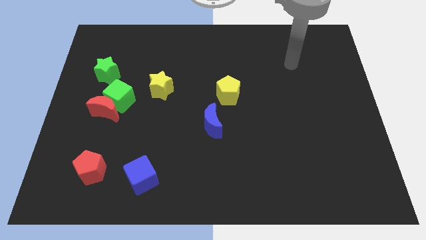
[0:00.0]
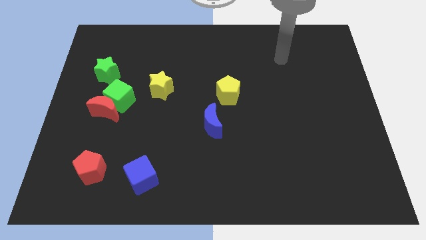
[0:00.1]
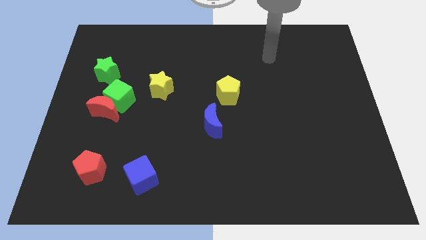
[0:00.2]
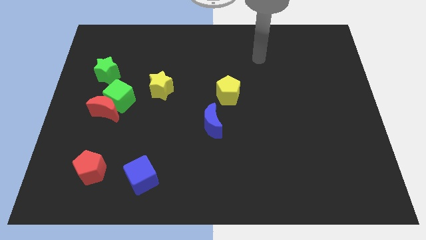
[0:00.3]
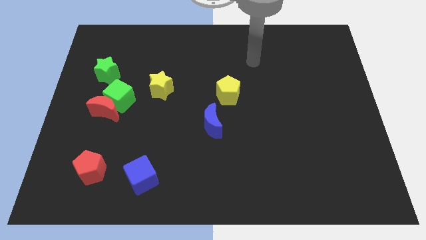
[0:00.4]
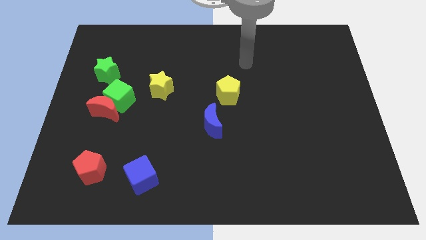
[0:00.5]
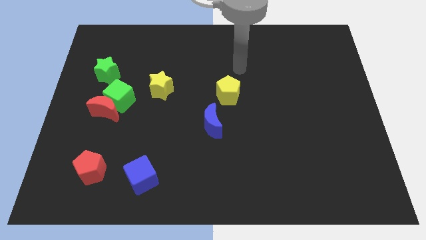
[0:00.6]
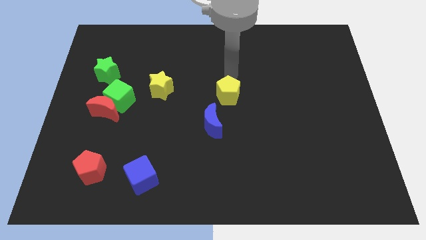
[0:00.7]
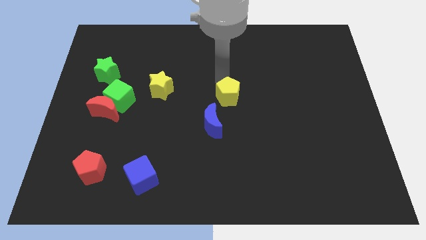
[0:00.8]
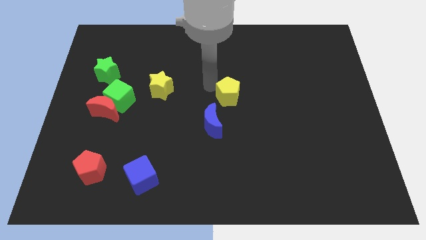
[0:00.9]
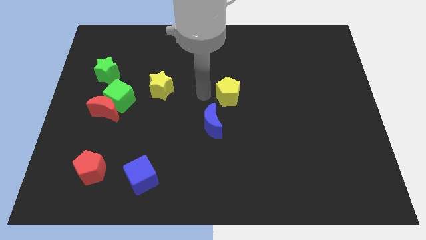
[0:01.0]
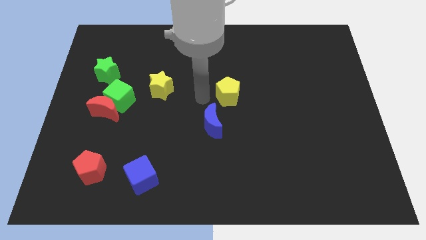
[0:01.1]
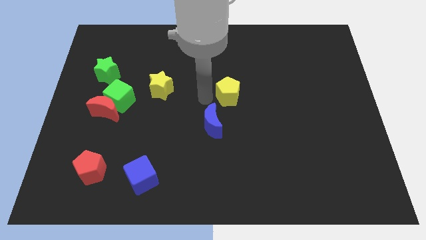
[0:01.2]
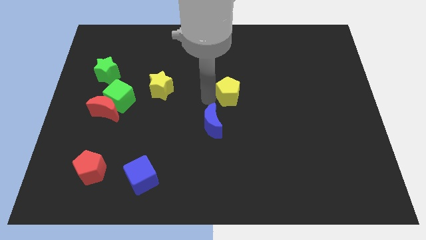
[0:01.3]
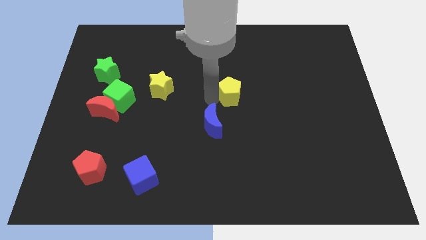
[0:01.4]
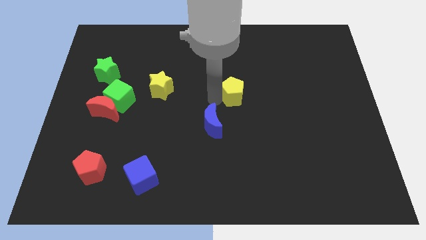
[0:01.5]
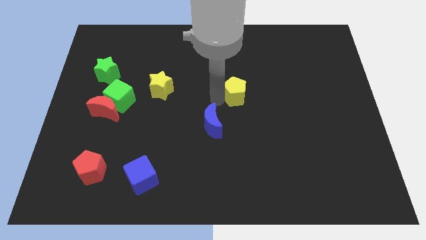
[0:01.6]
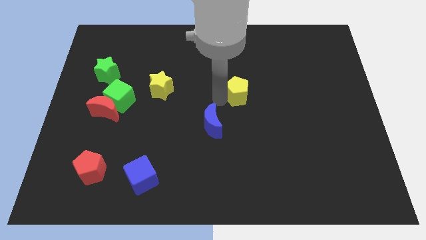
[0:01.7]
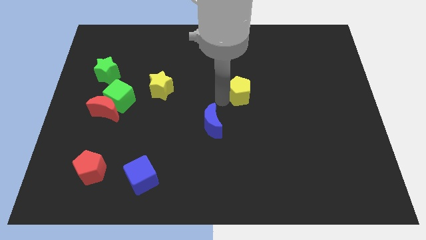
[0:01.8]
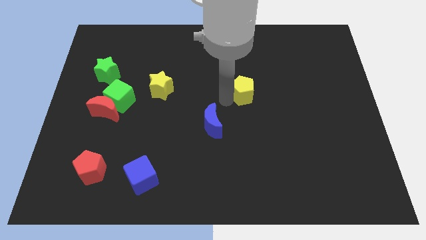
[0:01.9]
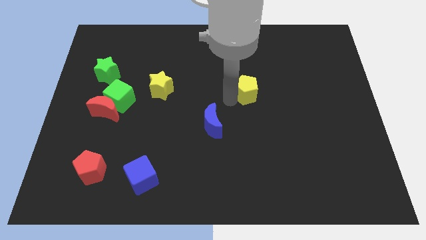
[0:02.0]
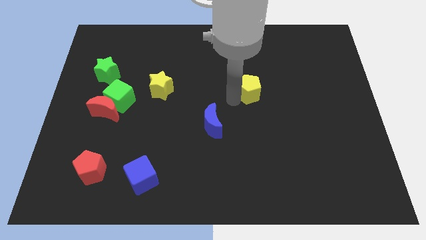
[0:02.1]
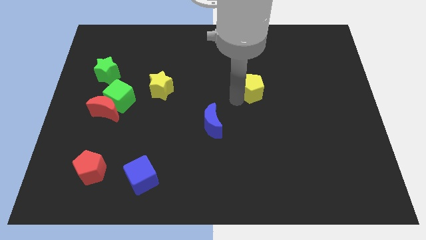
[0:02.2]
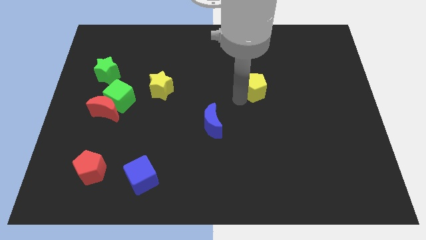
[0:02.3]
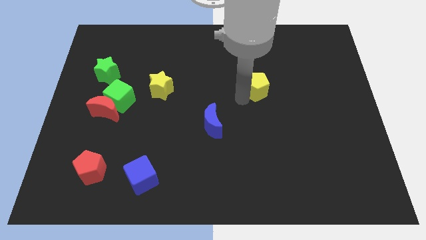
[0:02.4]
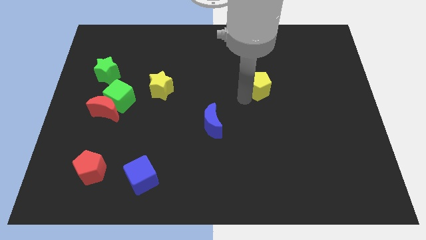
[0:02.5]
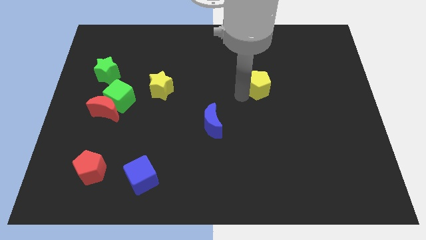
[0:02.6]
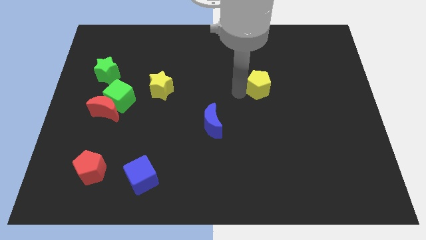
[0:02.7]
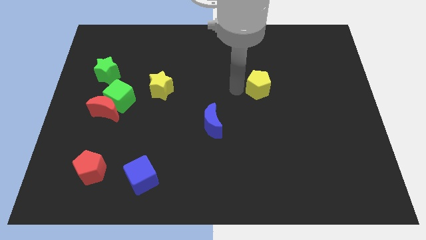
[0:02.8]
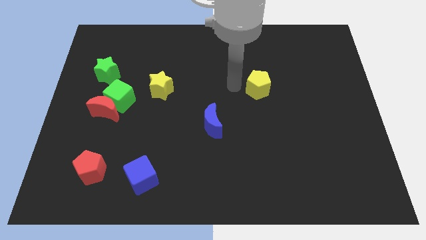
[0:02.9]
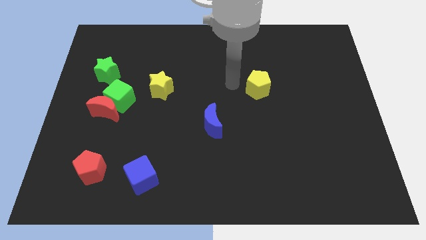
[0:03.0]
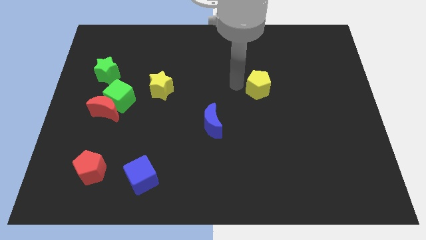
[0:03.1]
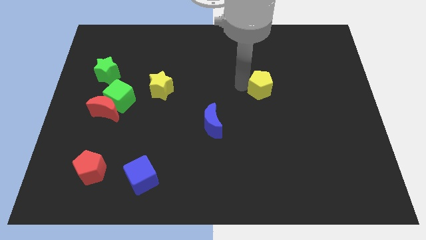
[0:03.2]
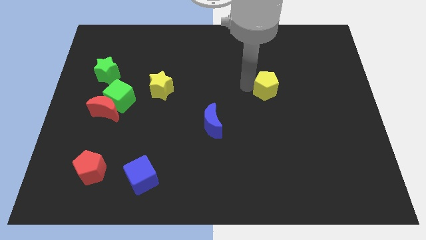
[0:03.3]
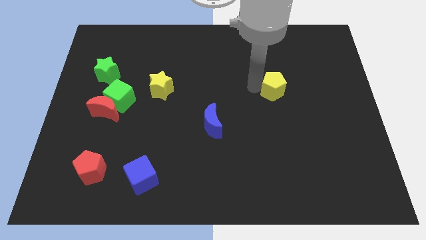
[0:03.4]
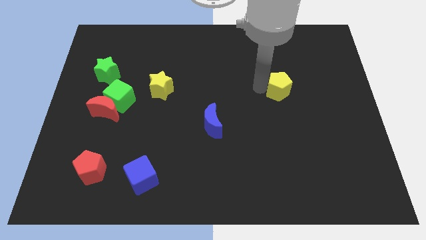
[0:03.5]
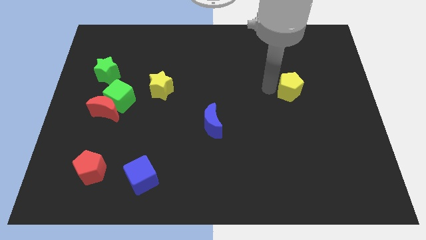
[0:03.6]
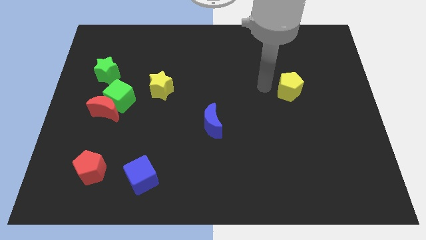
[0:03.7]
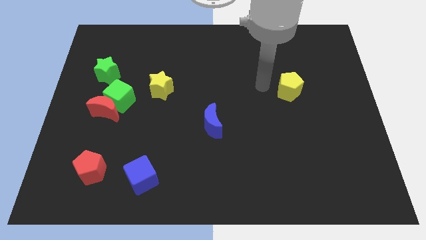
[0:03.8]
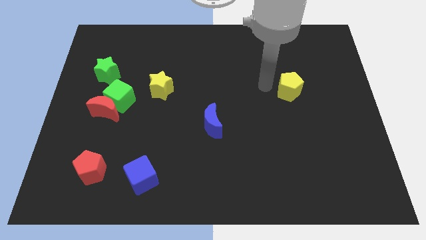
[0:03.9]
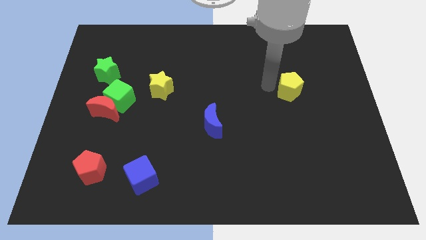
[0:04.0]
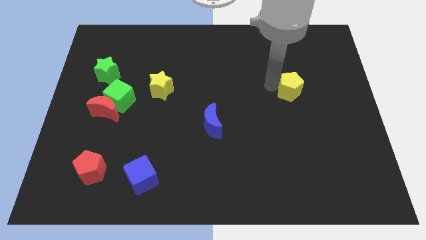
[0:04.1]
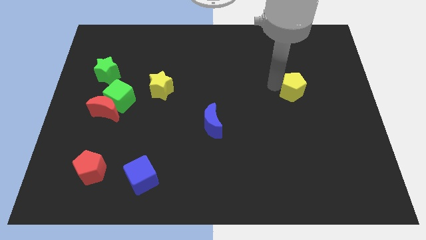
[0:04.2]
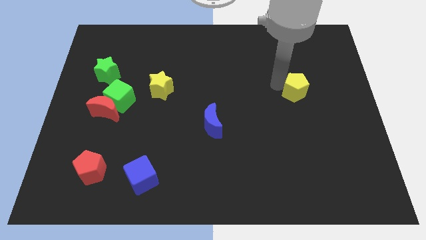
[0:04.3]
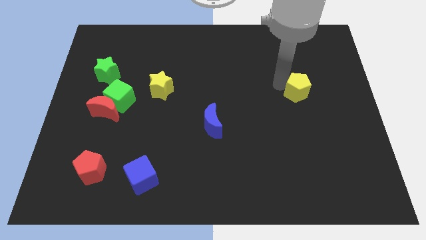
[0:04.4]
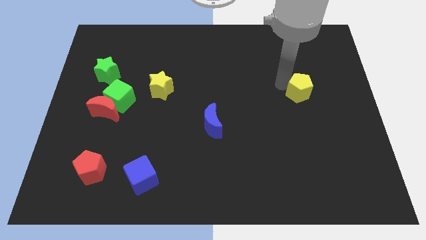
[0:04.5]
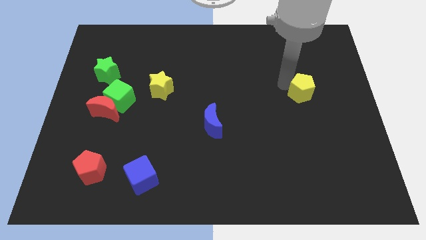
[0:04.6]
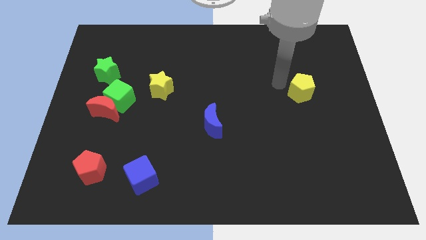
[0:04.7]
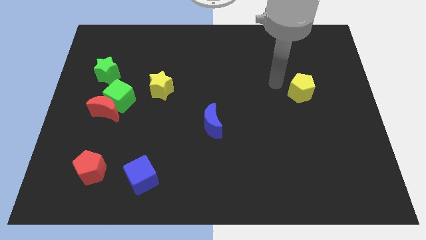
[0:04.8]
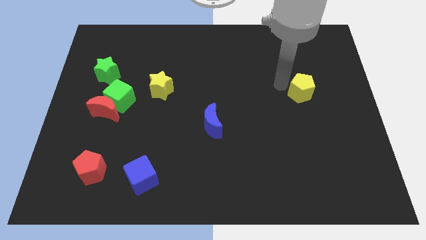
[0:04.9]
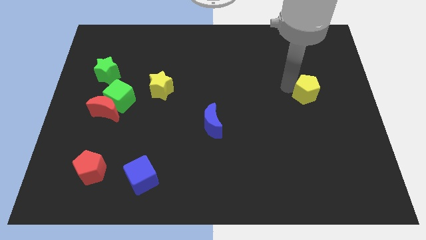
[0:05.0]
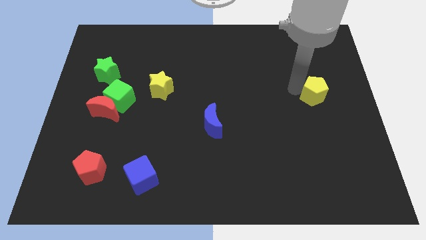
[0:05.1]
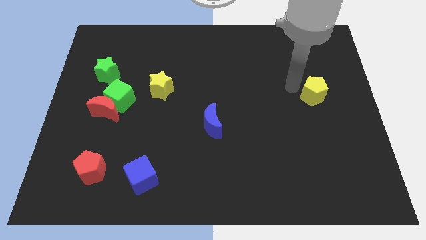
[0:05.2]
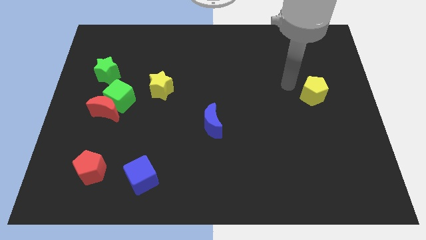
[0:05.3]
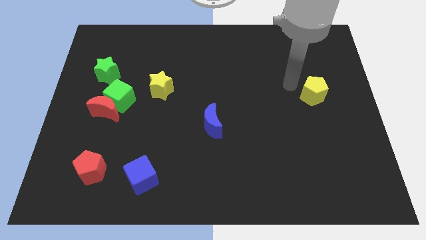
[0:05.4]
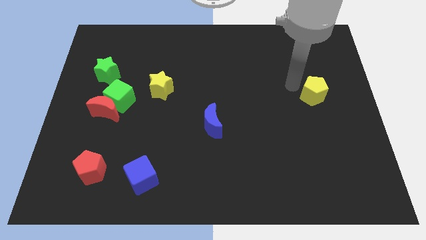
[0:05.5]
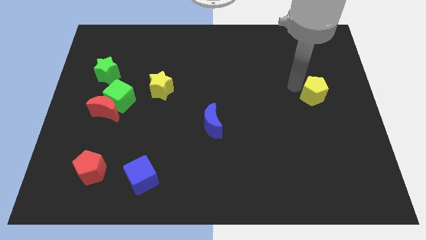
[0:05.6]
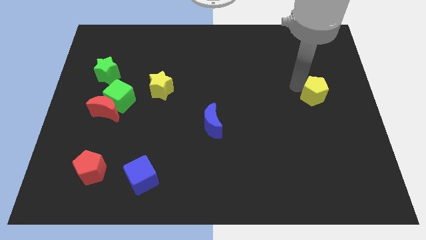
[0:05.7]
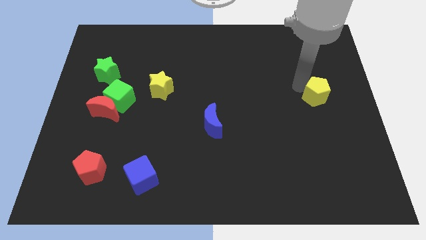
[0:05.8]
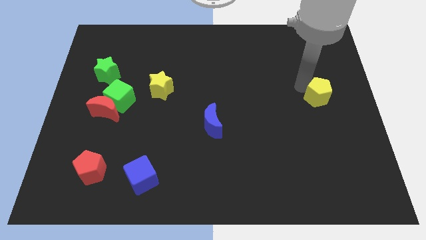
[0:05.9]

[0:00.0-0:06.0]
move the yellow pentagon to the right side of the board

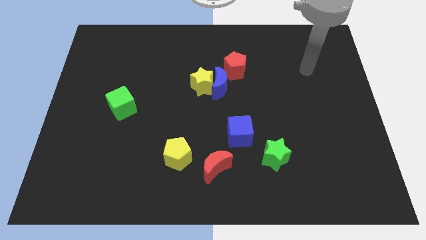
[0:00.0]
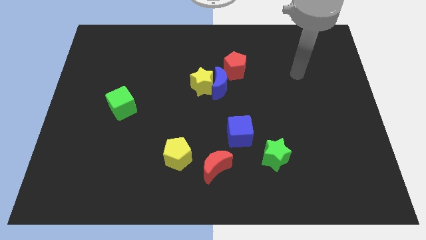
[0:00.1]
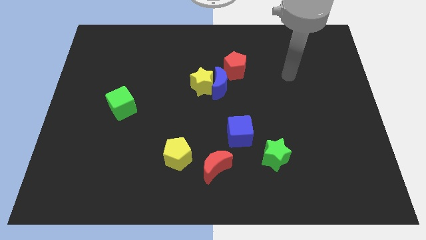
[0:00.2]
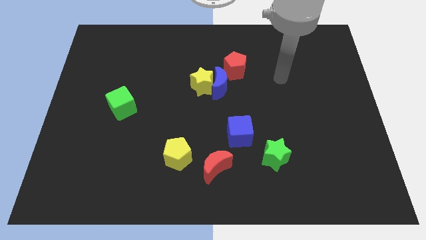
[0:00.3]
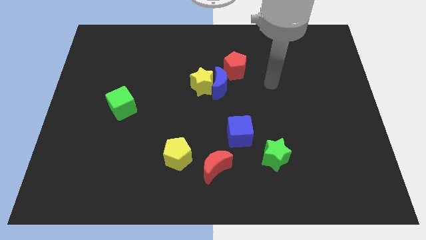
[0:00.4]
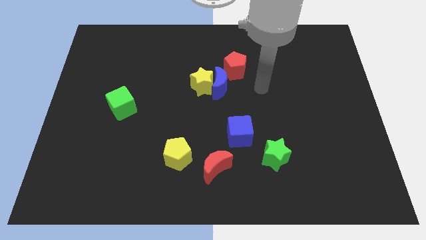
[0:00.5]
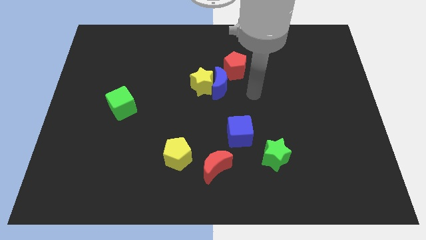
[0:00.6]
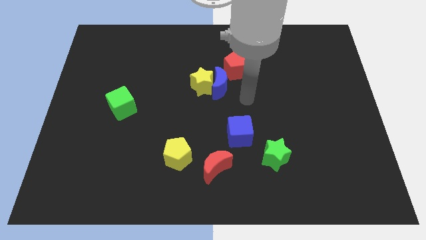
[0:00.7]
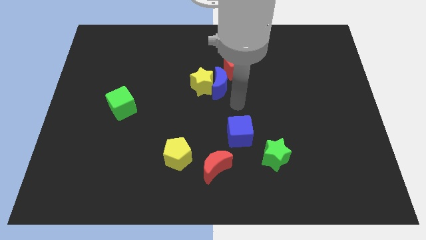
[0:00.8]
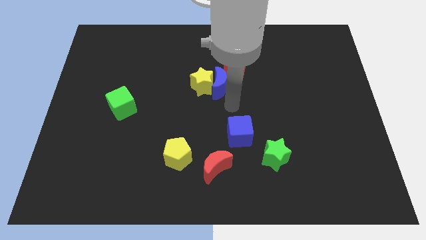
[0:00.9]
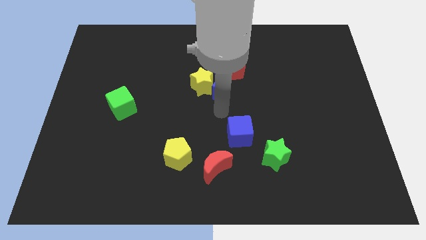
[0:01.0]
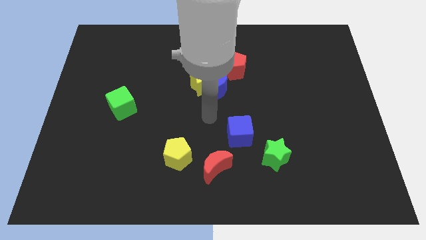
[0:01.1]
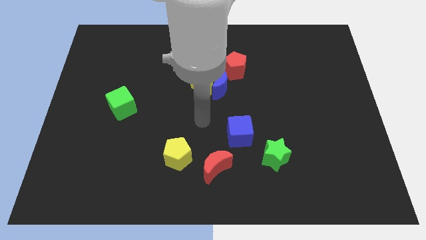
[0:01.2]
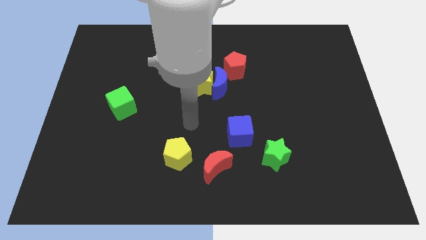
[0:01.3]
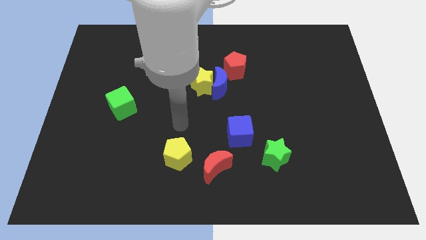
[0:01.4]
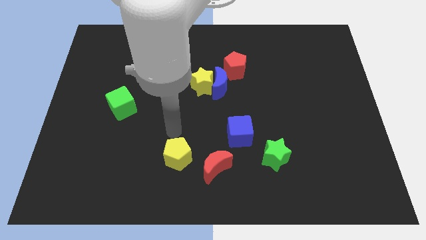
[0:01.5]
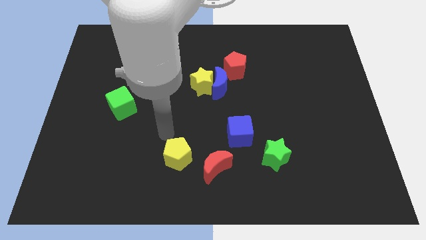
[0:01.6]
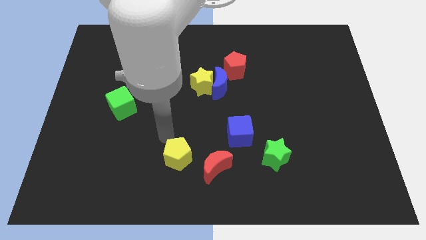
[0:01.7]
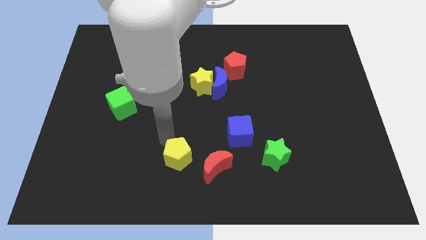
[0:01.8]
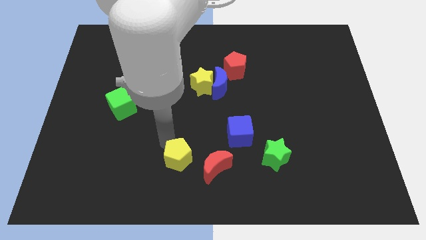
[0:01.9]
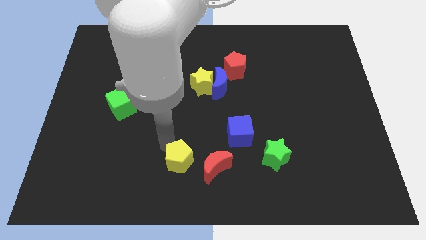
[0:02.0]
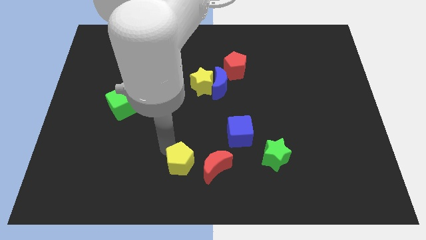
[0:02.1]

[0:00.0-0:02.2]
put the yellow pentagon to the bottom
